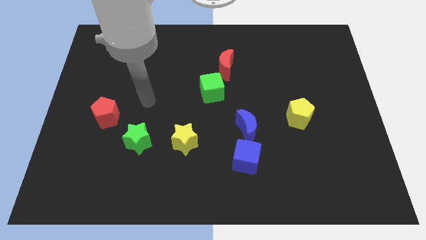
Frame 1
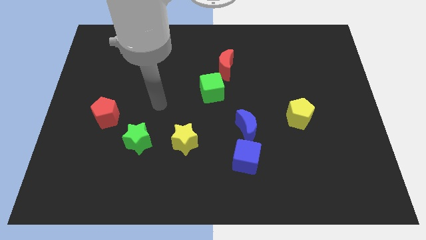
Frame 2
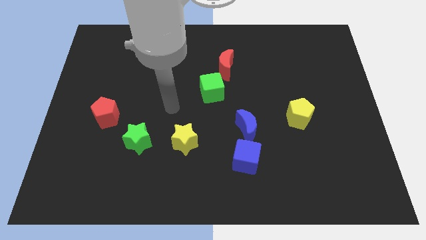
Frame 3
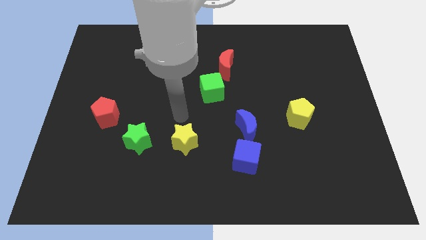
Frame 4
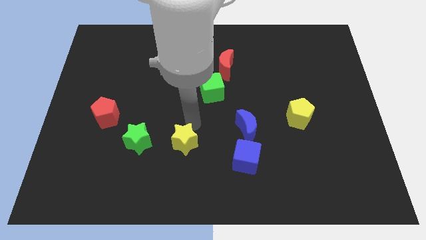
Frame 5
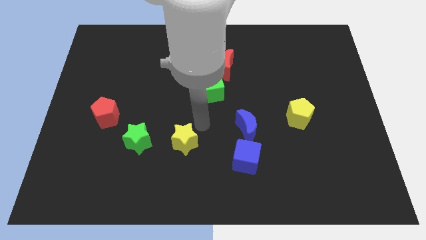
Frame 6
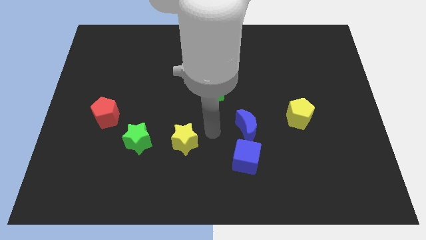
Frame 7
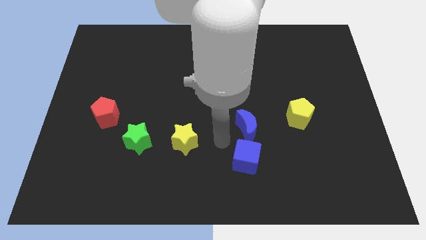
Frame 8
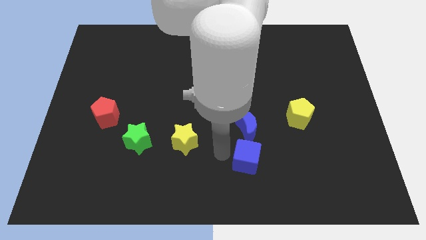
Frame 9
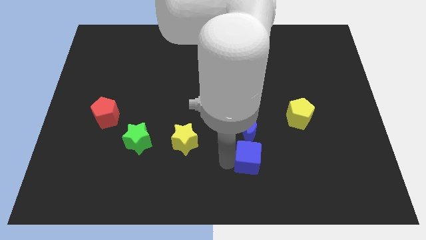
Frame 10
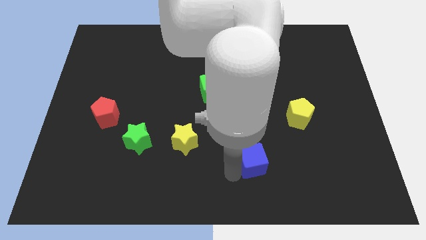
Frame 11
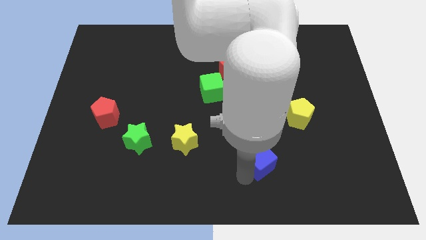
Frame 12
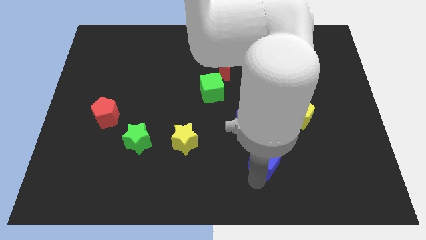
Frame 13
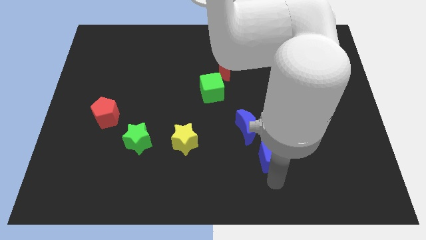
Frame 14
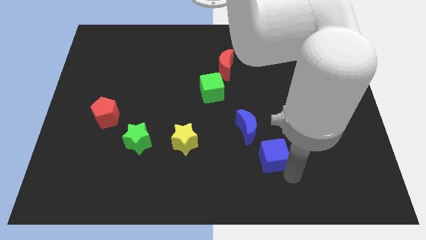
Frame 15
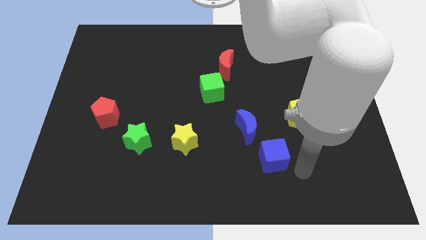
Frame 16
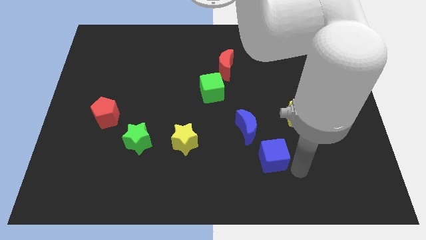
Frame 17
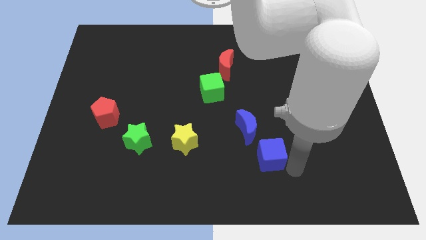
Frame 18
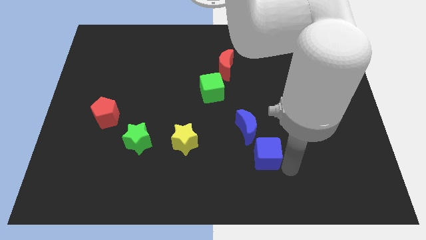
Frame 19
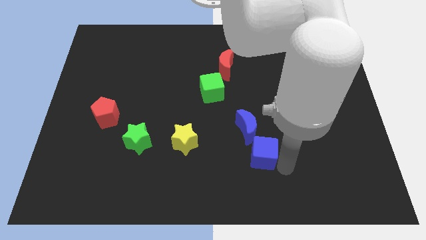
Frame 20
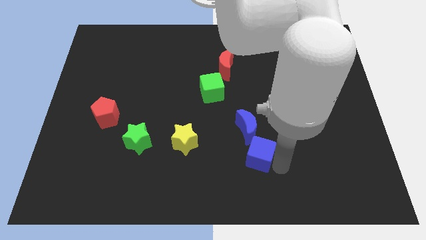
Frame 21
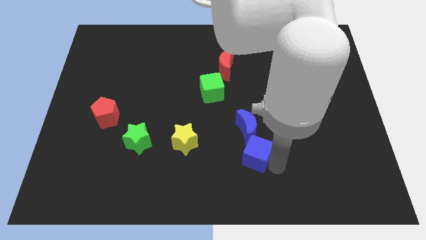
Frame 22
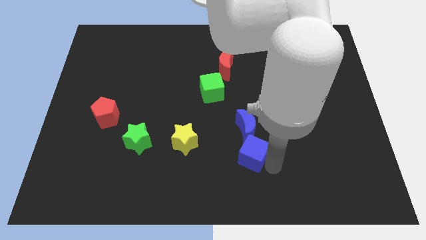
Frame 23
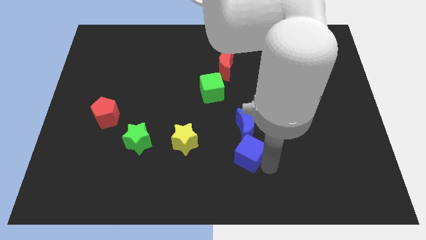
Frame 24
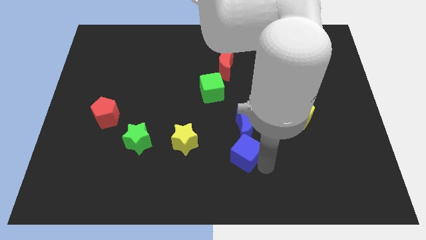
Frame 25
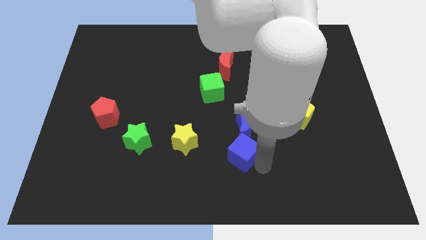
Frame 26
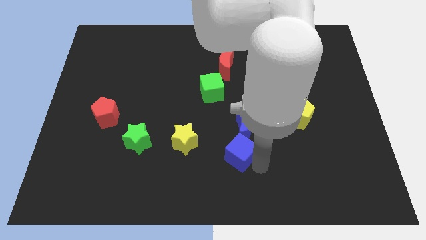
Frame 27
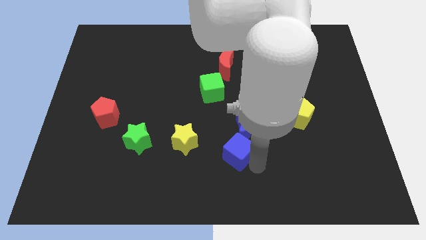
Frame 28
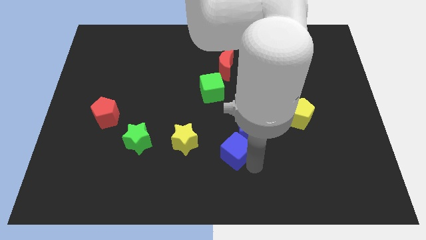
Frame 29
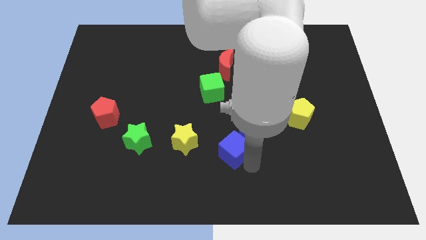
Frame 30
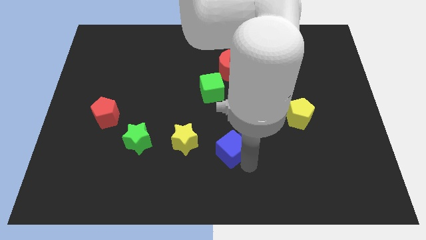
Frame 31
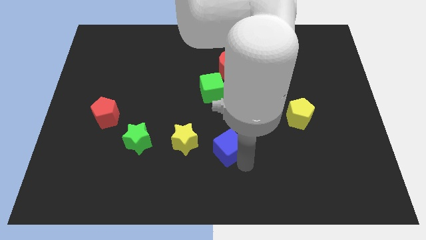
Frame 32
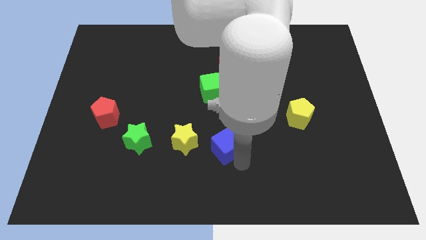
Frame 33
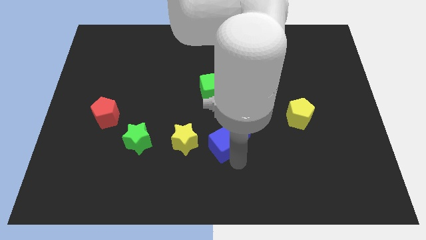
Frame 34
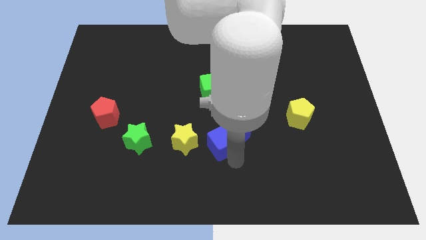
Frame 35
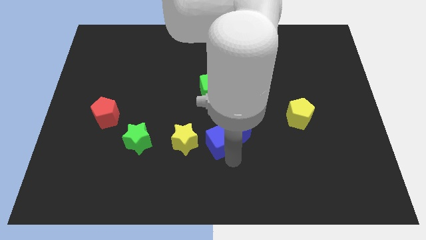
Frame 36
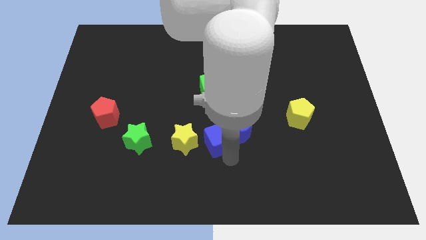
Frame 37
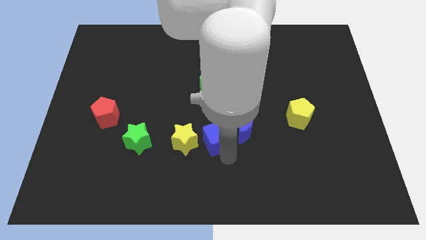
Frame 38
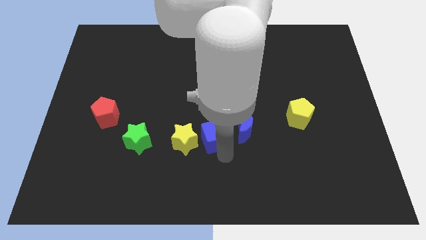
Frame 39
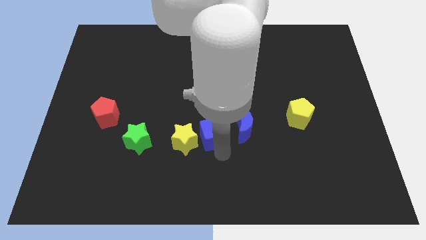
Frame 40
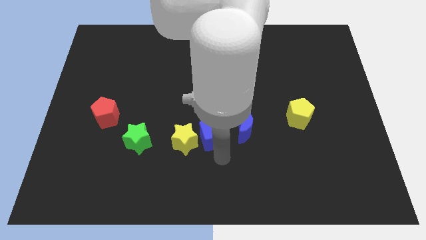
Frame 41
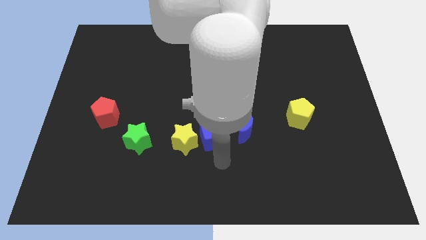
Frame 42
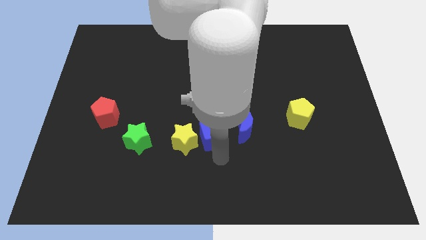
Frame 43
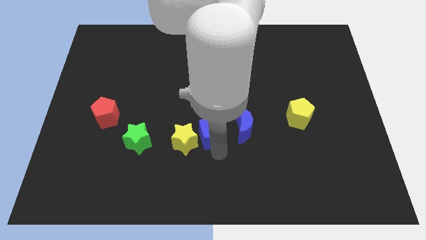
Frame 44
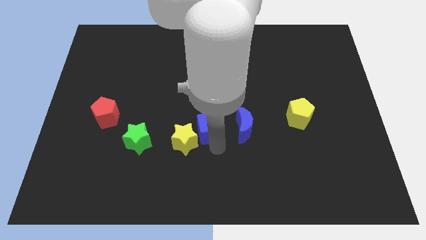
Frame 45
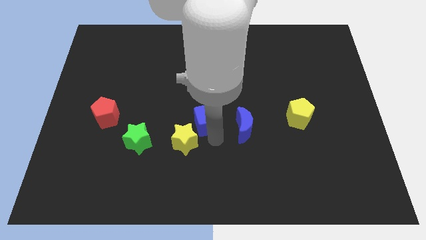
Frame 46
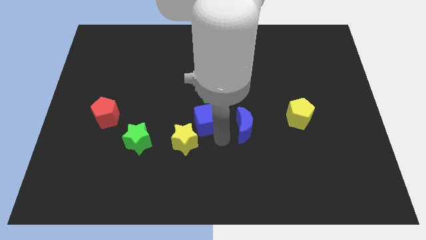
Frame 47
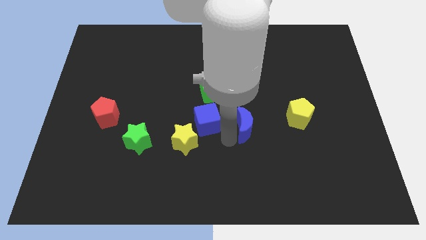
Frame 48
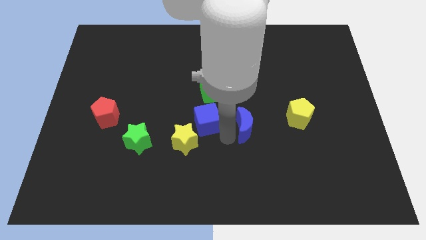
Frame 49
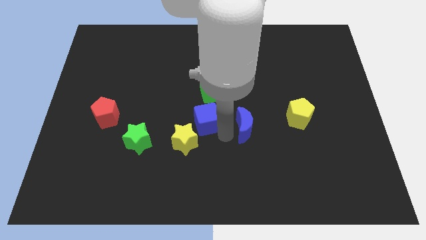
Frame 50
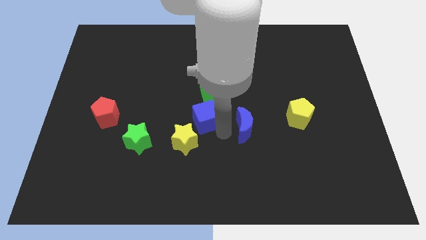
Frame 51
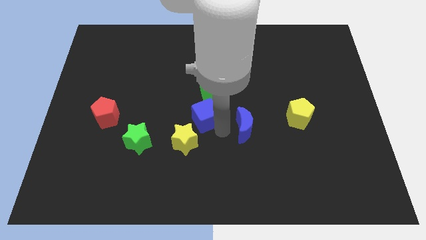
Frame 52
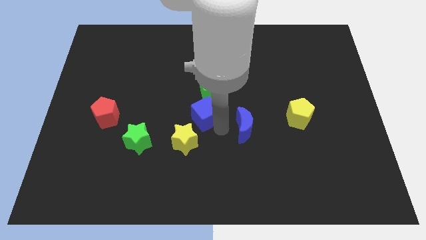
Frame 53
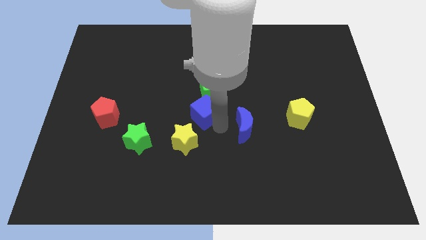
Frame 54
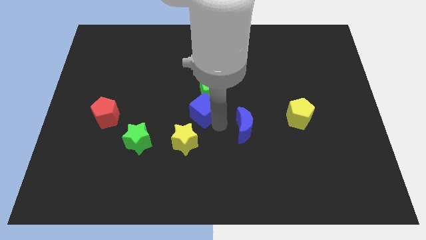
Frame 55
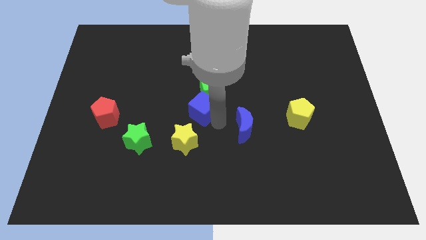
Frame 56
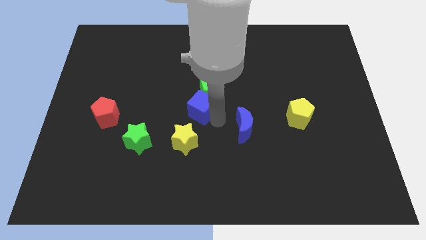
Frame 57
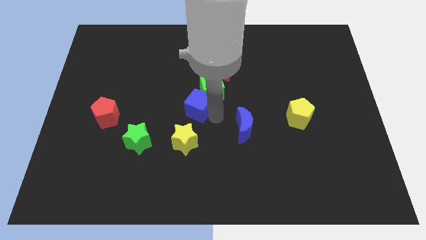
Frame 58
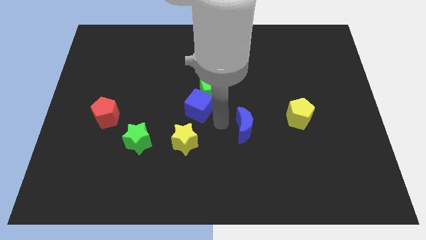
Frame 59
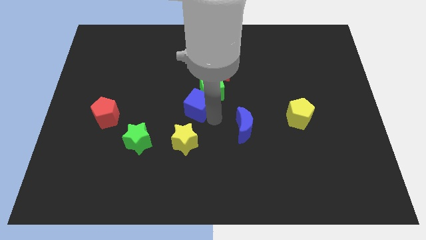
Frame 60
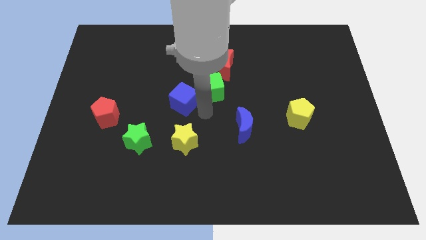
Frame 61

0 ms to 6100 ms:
move the blue cube up and left

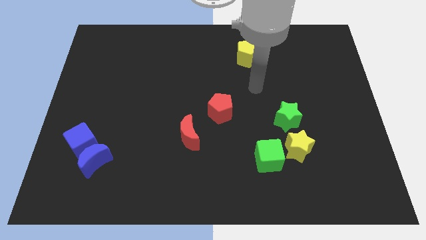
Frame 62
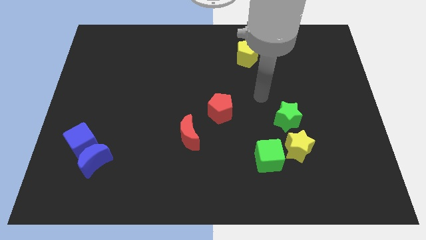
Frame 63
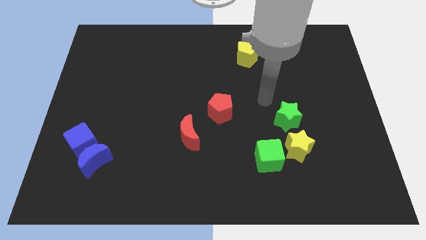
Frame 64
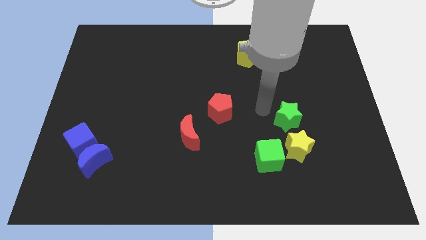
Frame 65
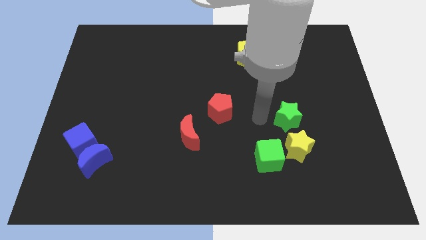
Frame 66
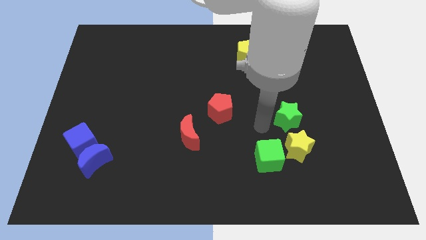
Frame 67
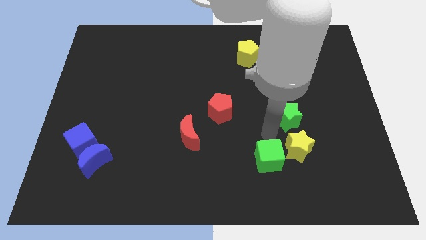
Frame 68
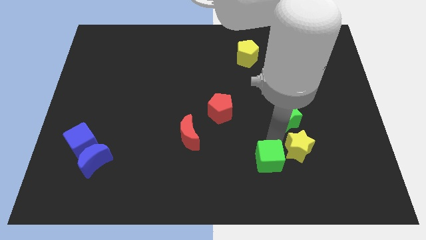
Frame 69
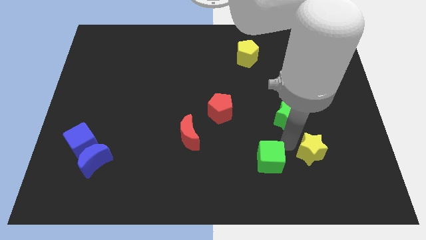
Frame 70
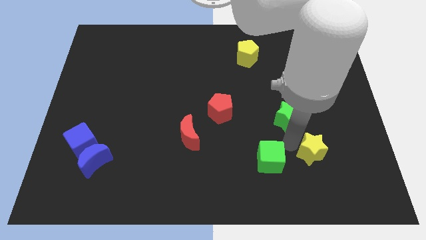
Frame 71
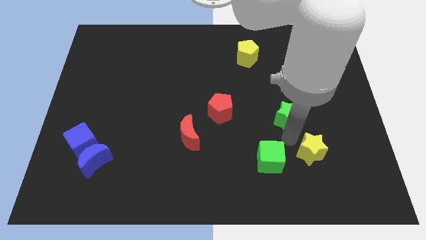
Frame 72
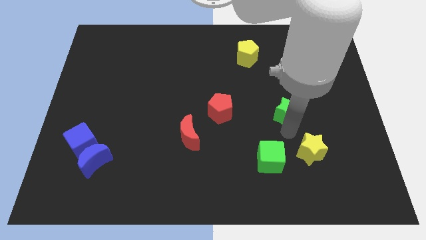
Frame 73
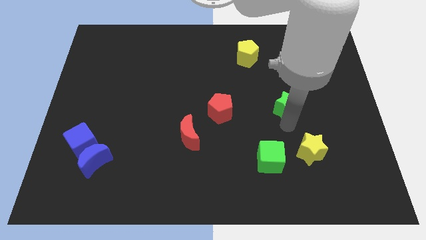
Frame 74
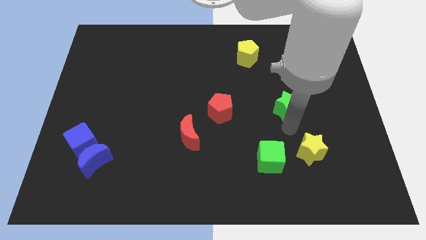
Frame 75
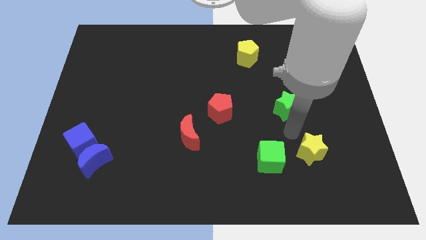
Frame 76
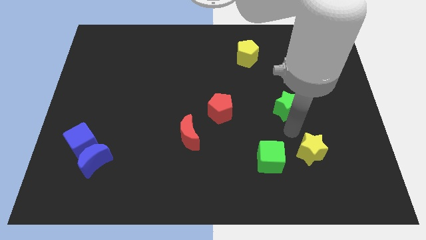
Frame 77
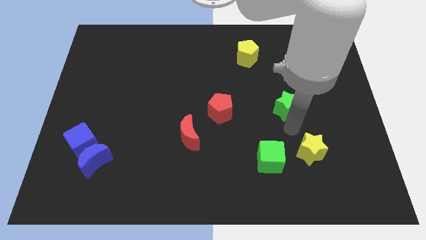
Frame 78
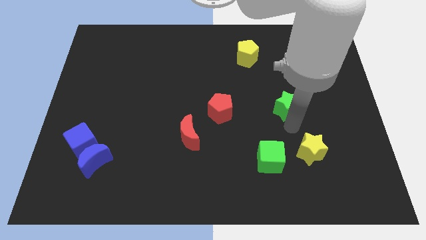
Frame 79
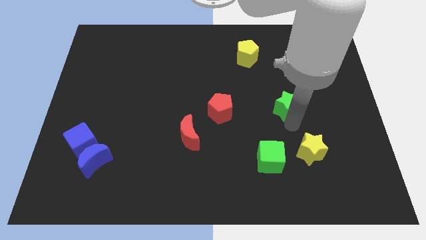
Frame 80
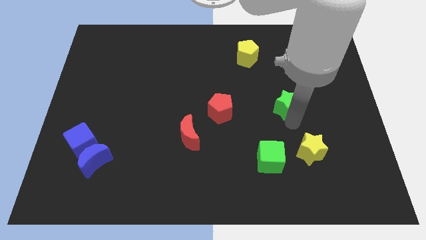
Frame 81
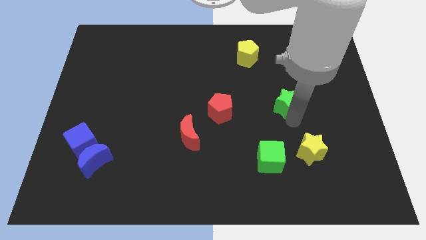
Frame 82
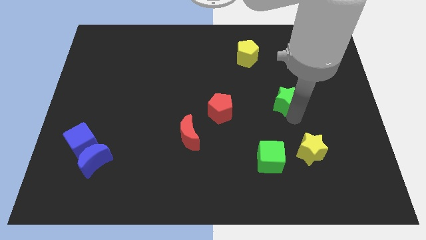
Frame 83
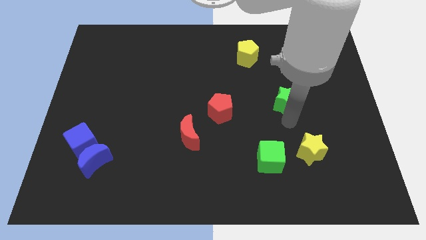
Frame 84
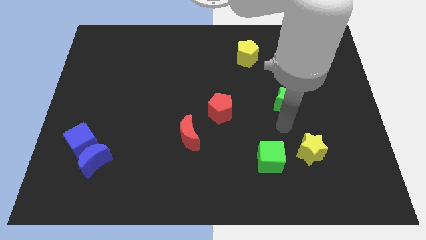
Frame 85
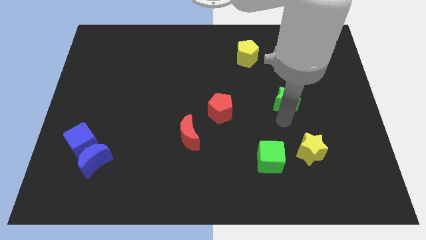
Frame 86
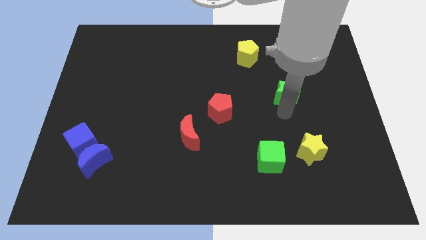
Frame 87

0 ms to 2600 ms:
slightly move the green star up

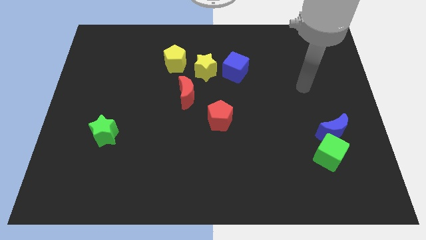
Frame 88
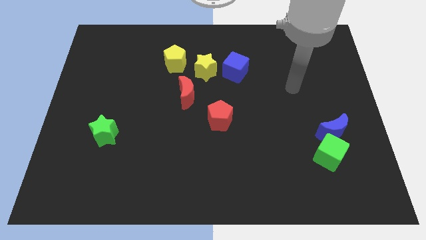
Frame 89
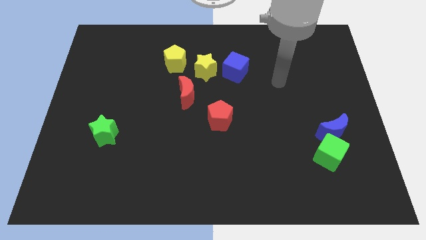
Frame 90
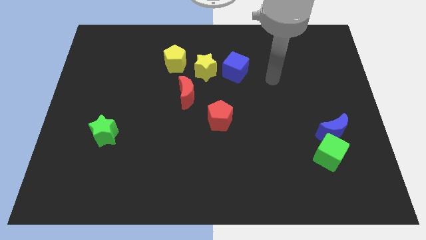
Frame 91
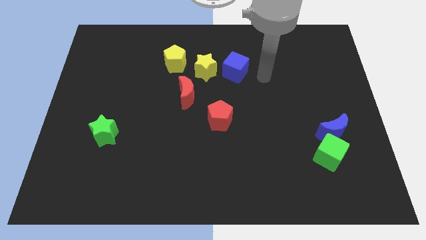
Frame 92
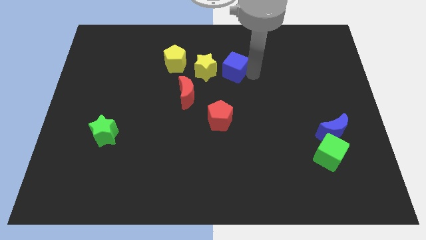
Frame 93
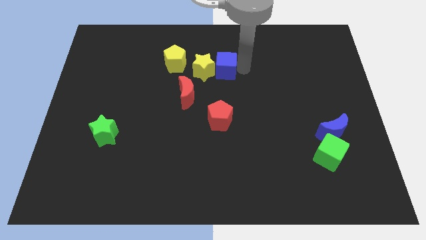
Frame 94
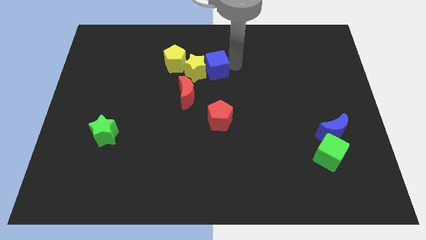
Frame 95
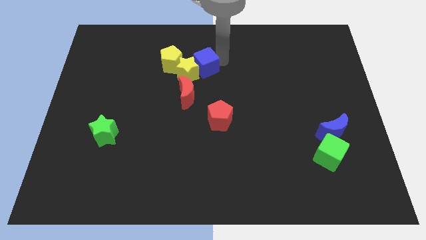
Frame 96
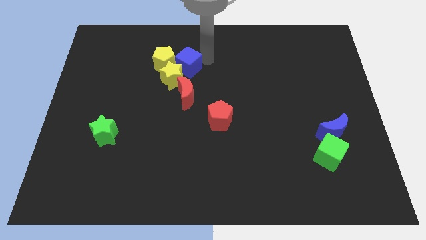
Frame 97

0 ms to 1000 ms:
slightly slide the yellow star down and to the left
